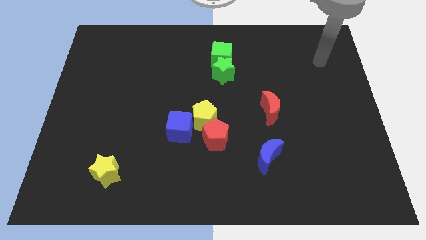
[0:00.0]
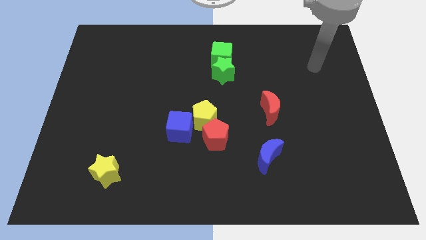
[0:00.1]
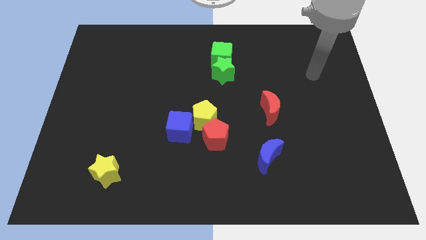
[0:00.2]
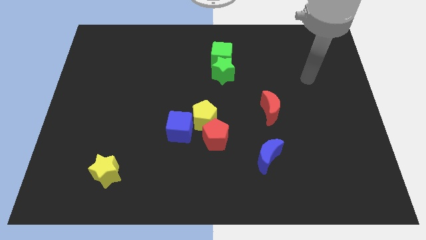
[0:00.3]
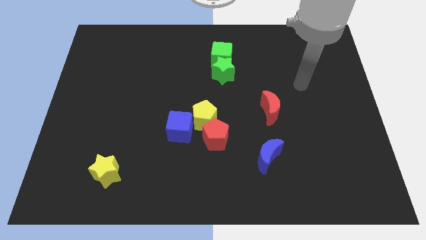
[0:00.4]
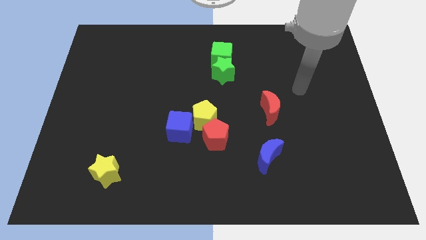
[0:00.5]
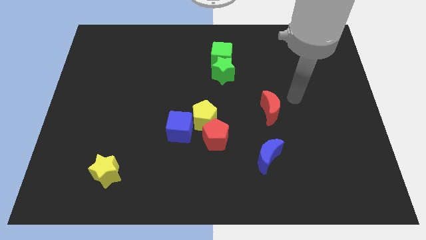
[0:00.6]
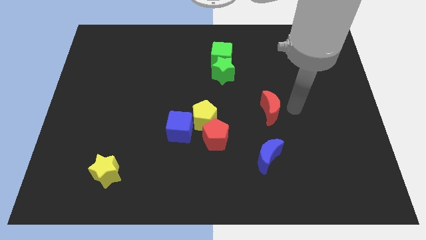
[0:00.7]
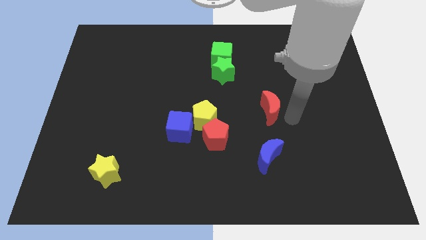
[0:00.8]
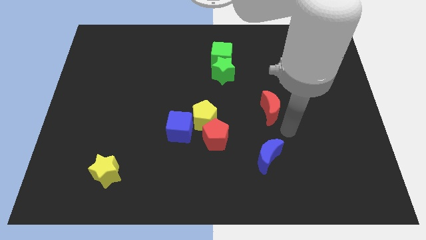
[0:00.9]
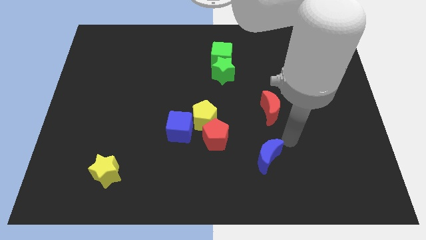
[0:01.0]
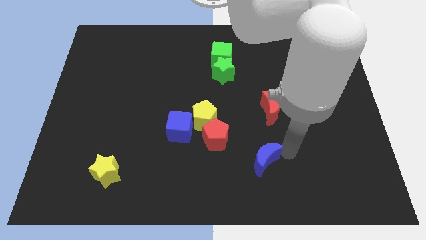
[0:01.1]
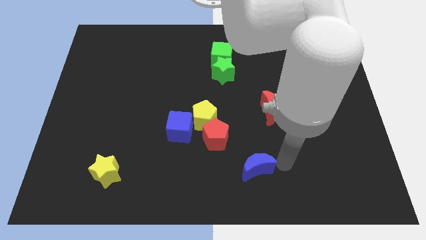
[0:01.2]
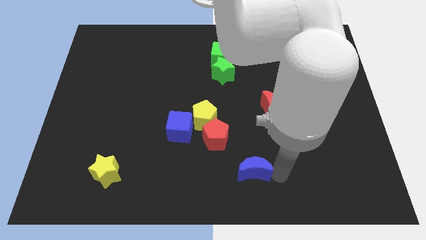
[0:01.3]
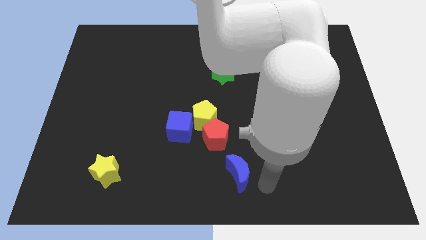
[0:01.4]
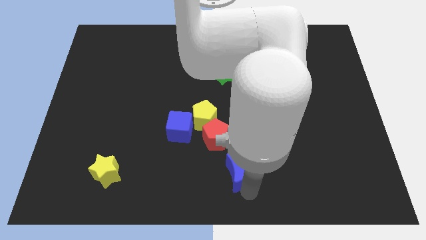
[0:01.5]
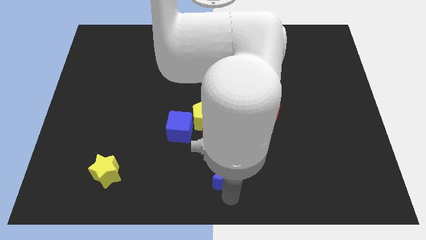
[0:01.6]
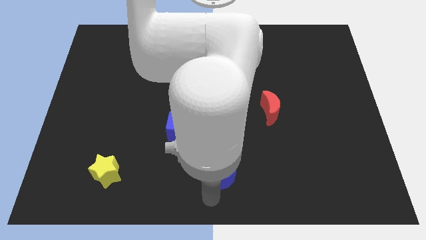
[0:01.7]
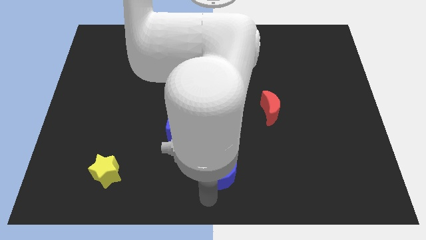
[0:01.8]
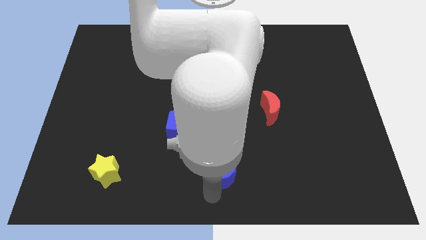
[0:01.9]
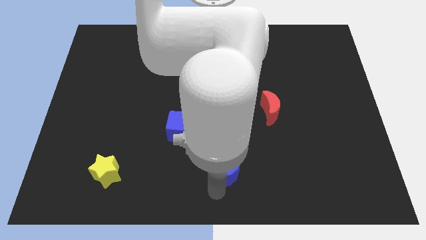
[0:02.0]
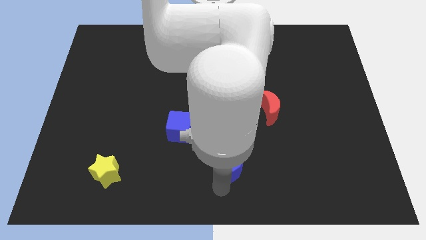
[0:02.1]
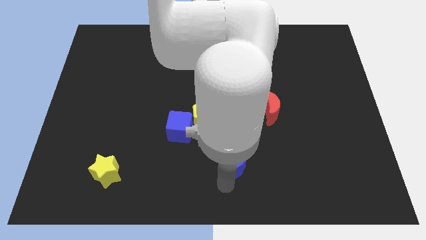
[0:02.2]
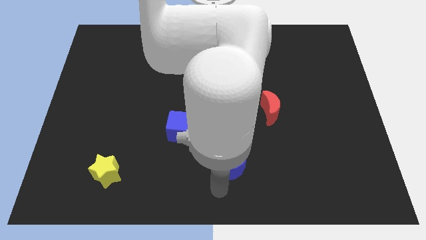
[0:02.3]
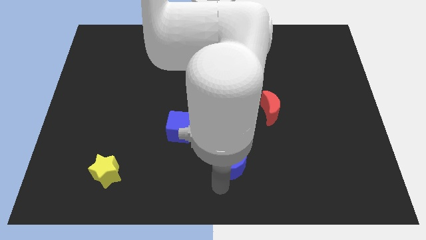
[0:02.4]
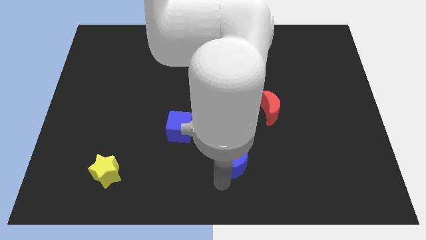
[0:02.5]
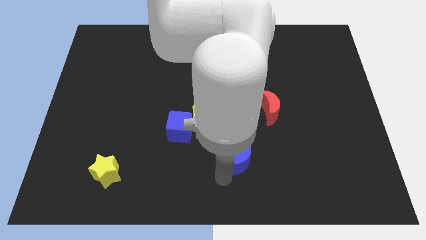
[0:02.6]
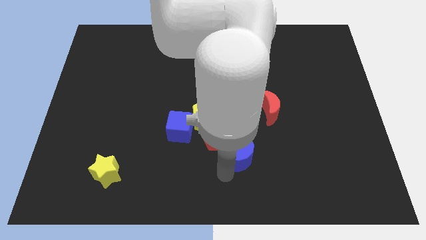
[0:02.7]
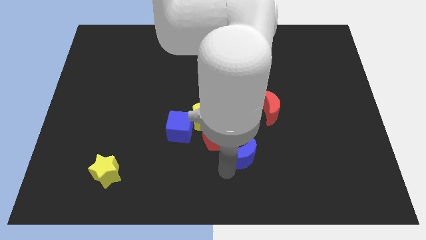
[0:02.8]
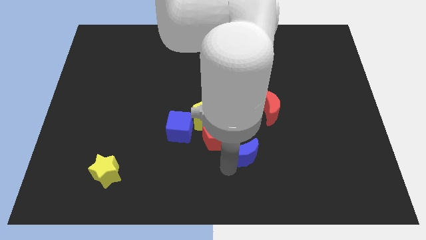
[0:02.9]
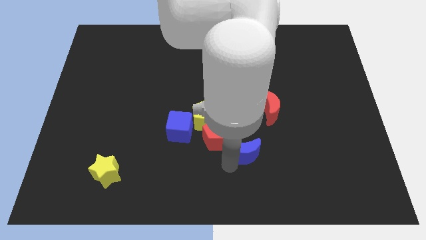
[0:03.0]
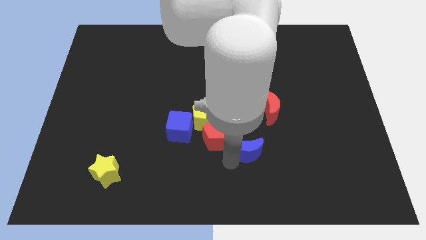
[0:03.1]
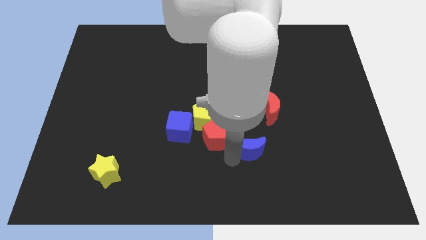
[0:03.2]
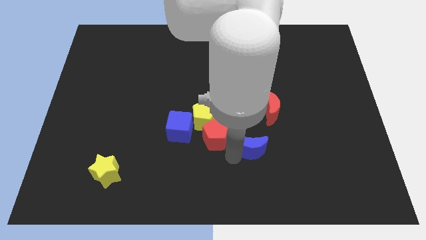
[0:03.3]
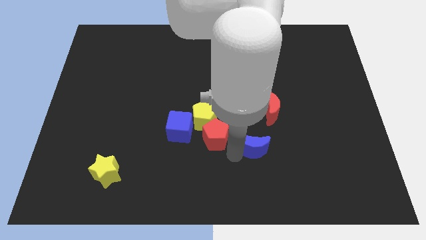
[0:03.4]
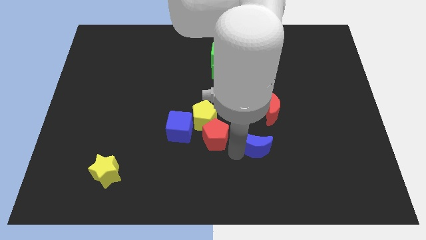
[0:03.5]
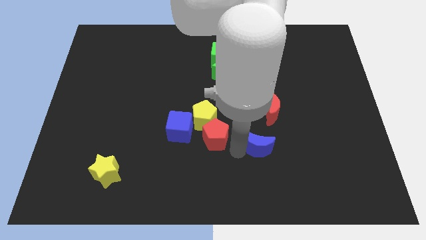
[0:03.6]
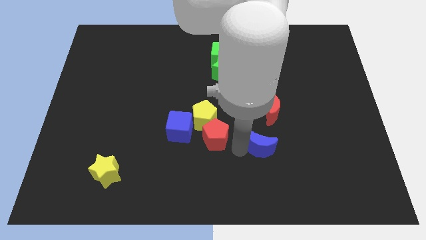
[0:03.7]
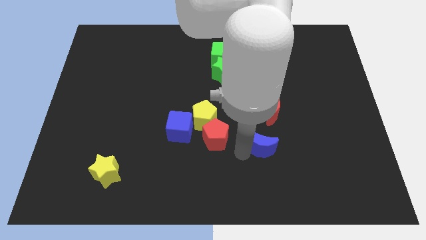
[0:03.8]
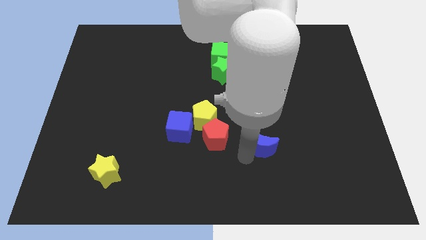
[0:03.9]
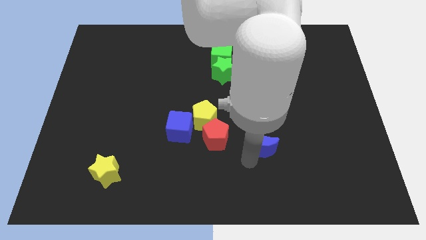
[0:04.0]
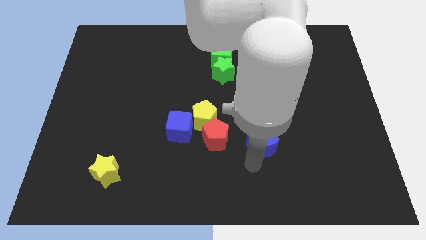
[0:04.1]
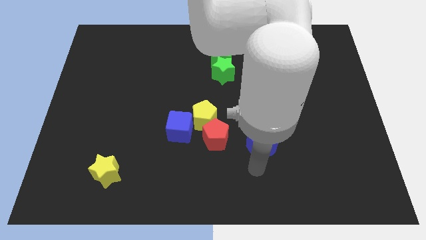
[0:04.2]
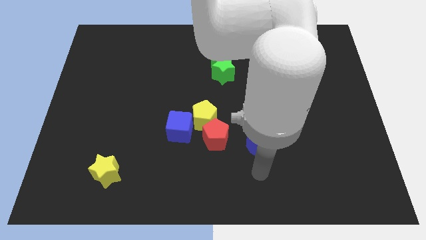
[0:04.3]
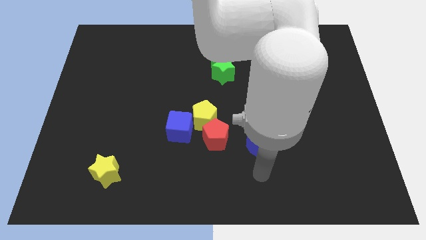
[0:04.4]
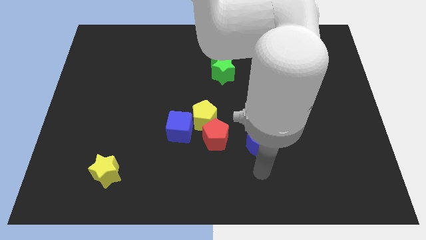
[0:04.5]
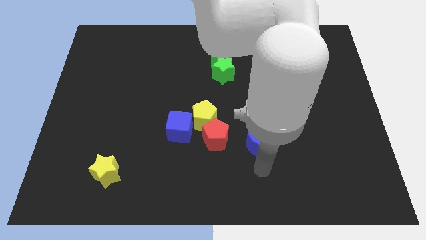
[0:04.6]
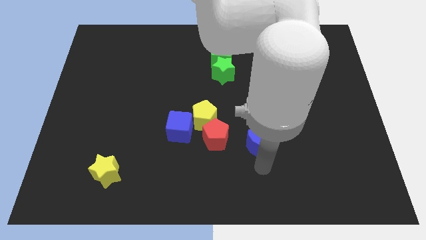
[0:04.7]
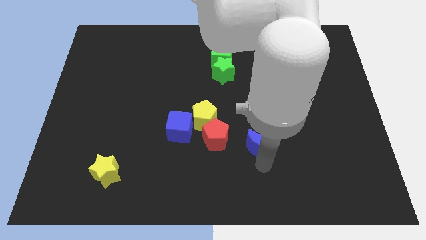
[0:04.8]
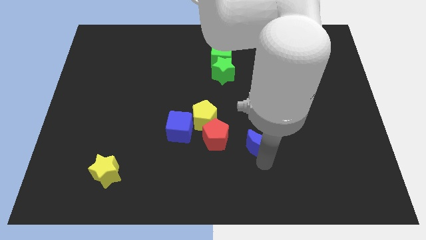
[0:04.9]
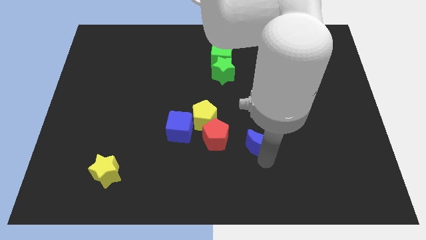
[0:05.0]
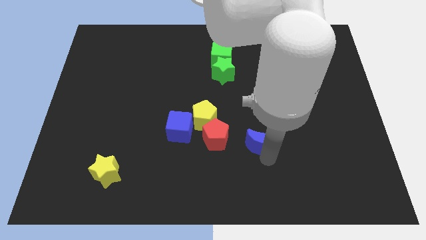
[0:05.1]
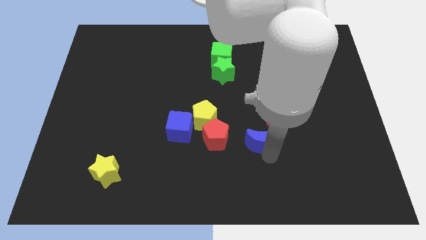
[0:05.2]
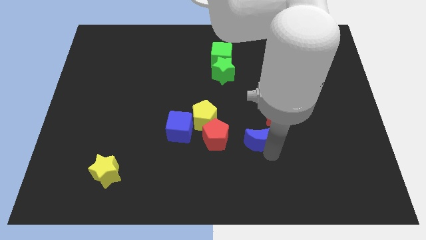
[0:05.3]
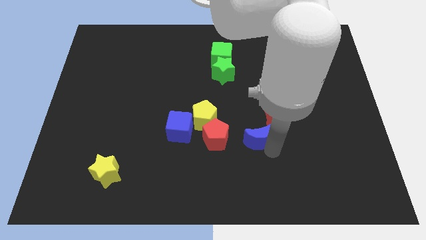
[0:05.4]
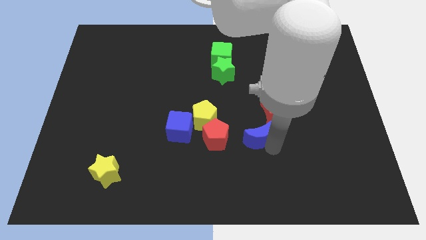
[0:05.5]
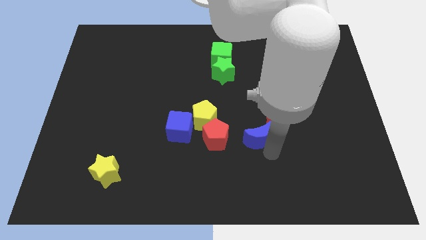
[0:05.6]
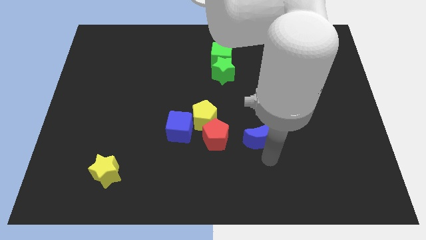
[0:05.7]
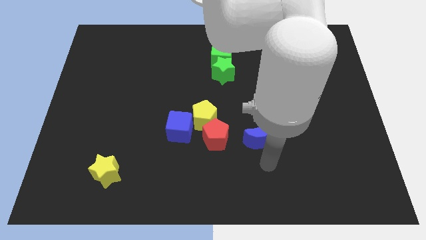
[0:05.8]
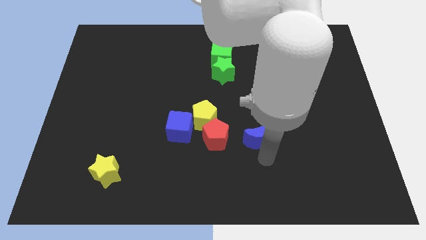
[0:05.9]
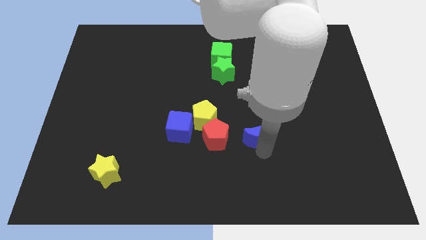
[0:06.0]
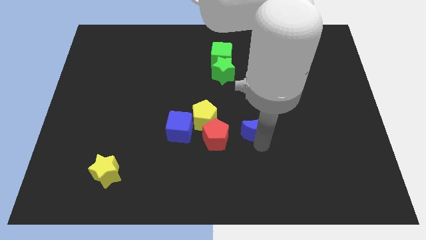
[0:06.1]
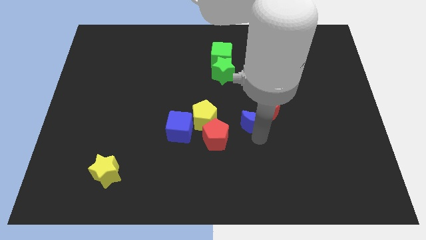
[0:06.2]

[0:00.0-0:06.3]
move the blue moon a little bit upwards

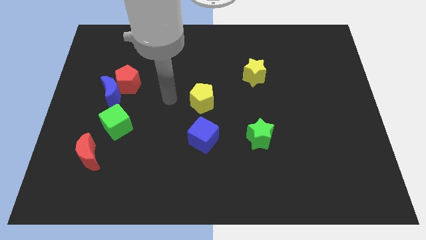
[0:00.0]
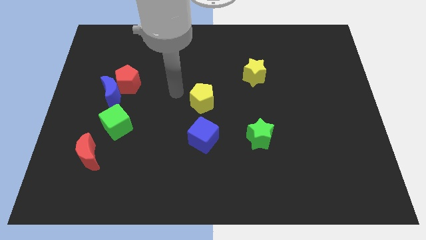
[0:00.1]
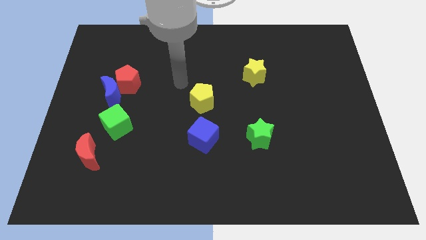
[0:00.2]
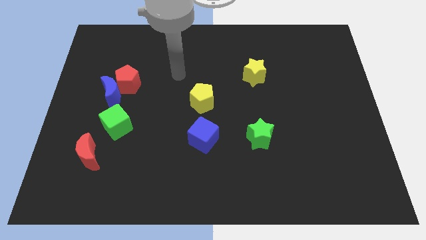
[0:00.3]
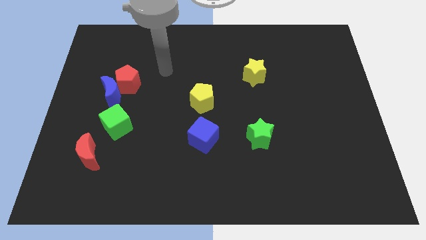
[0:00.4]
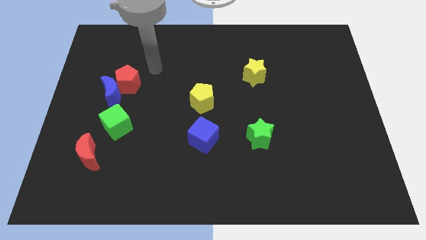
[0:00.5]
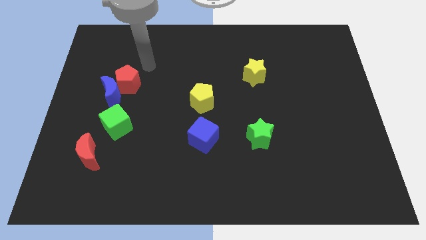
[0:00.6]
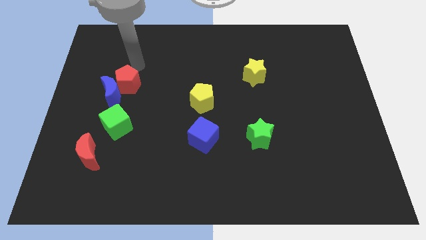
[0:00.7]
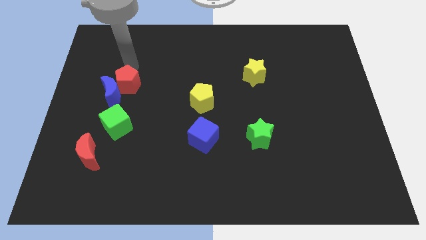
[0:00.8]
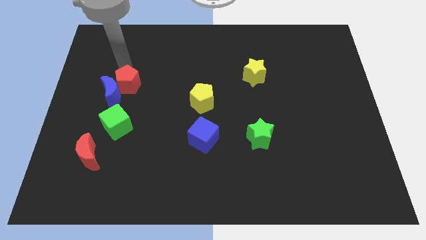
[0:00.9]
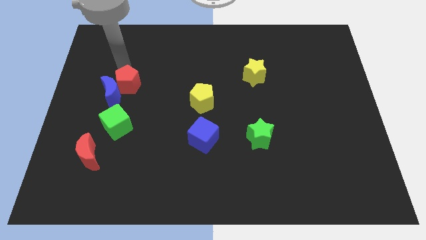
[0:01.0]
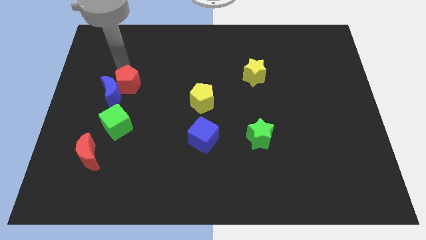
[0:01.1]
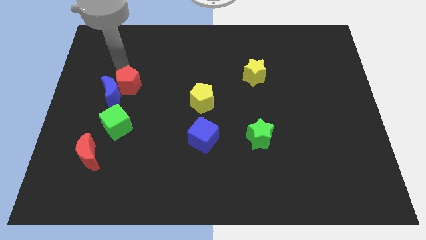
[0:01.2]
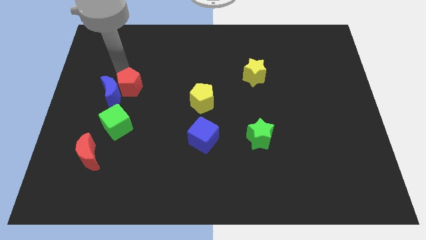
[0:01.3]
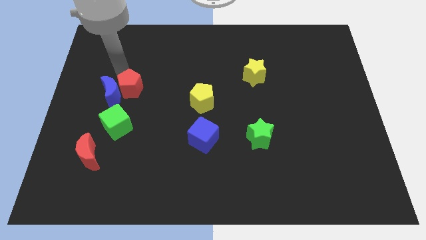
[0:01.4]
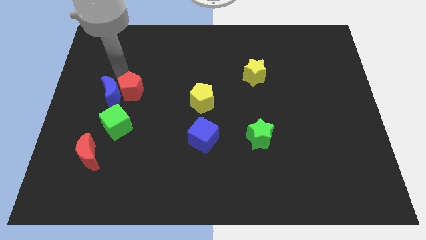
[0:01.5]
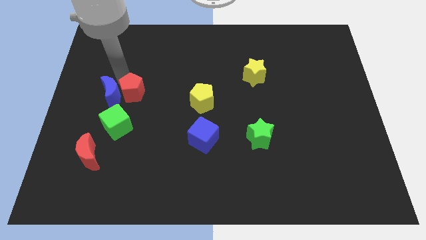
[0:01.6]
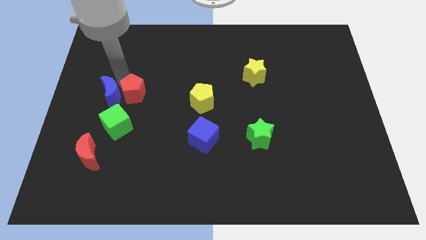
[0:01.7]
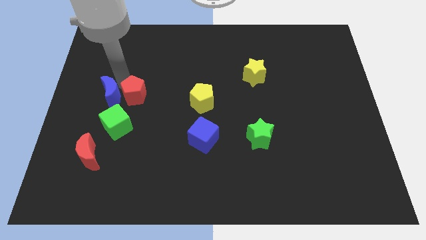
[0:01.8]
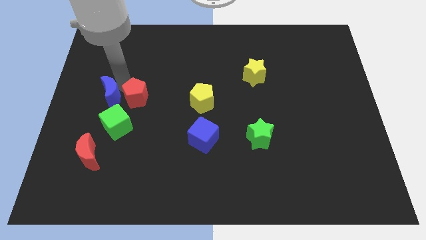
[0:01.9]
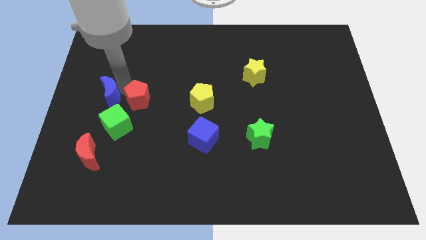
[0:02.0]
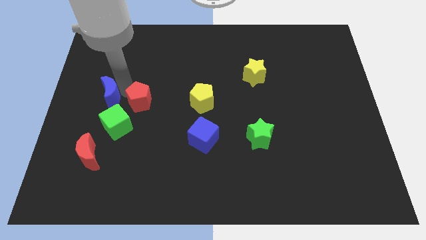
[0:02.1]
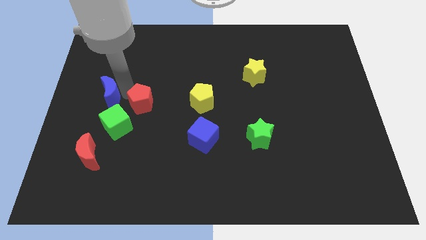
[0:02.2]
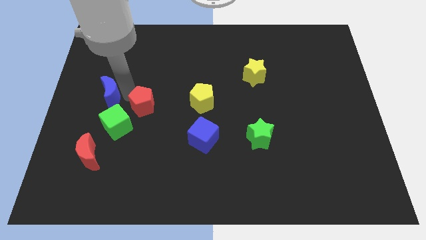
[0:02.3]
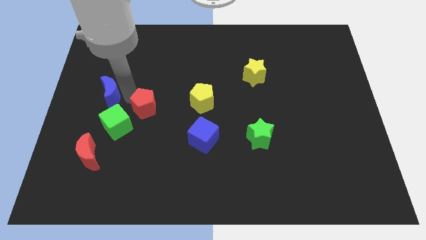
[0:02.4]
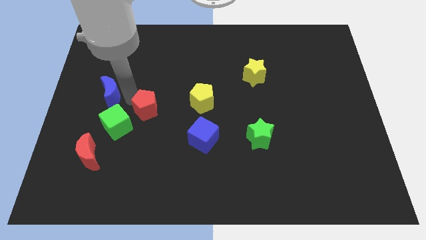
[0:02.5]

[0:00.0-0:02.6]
slightly slide the red pentagon down
